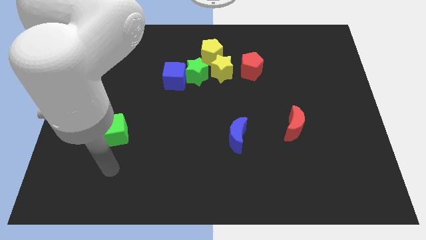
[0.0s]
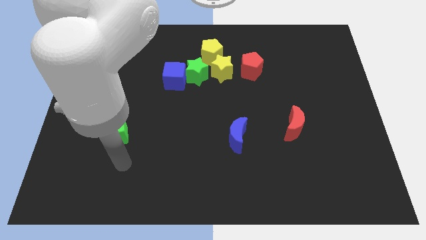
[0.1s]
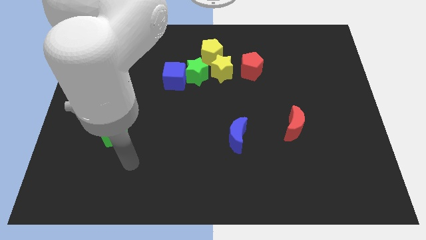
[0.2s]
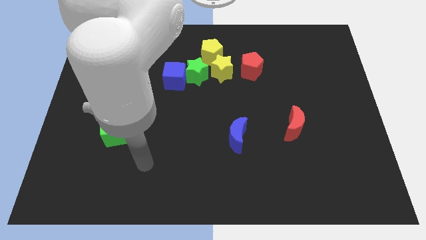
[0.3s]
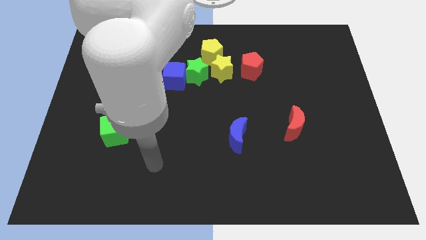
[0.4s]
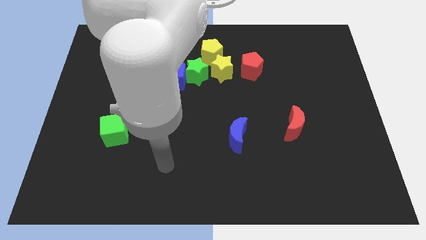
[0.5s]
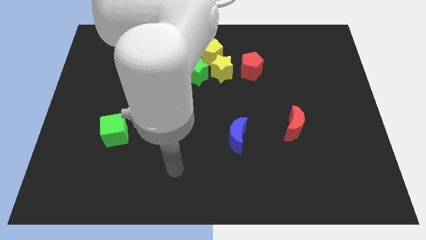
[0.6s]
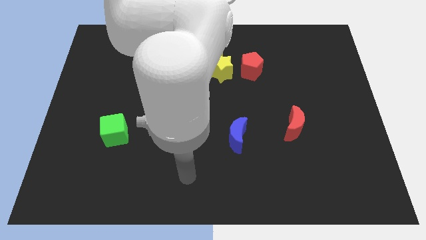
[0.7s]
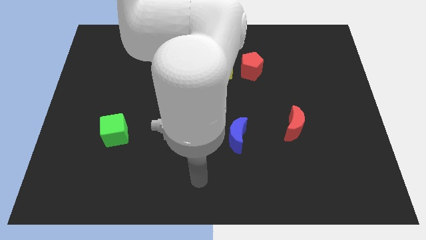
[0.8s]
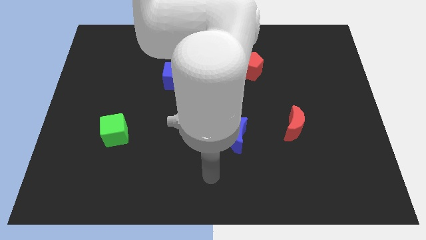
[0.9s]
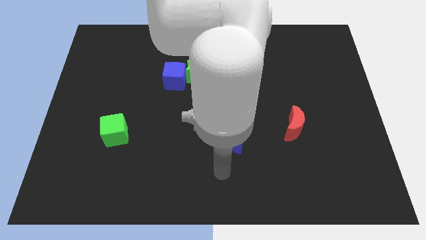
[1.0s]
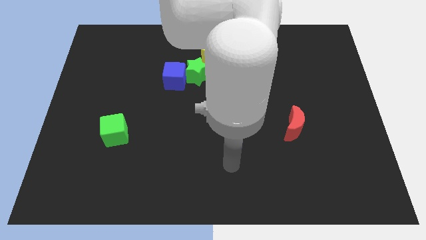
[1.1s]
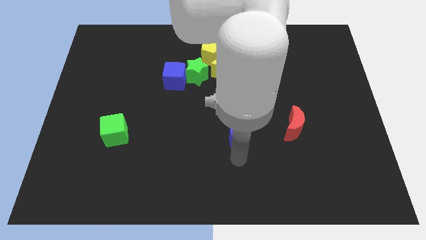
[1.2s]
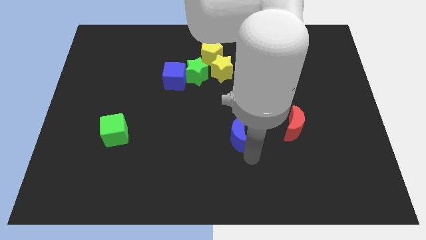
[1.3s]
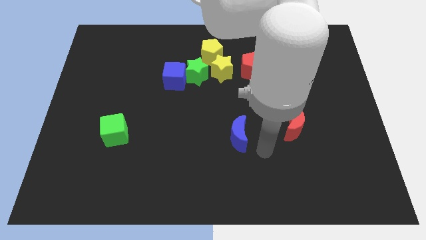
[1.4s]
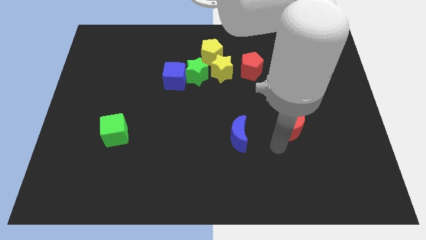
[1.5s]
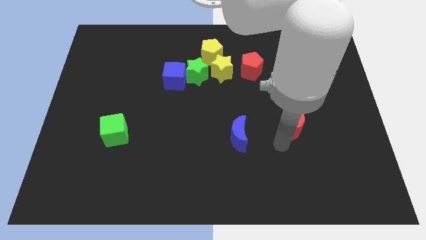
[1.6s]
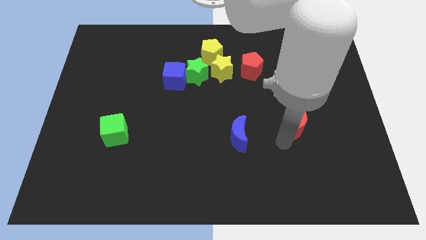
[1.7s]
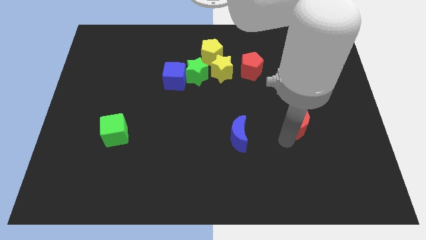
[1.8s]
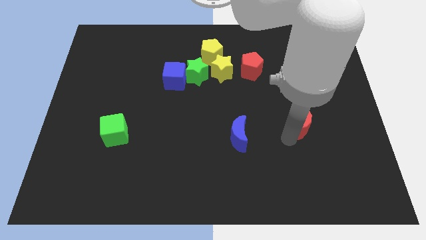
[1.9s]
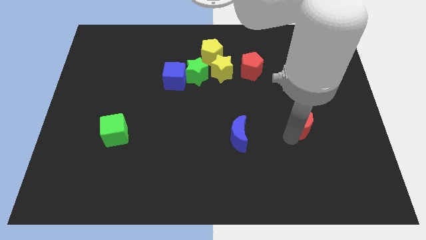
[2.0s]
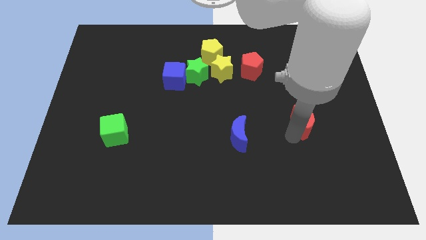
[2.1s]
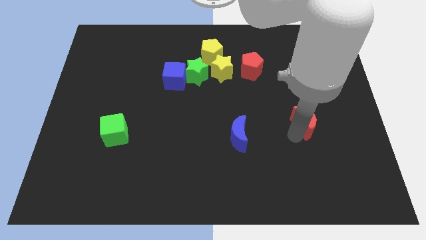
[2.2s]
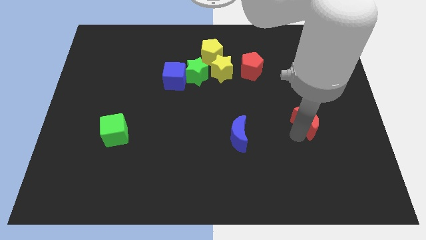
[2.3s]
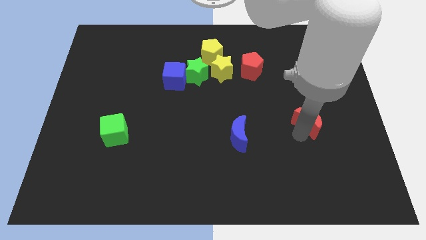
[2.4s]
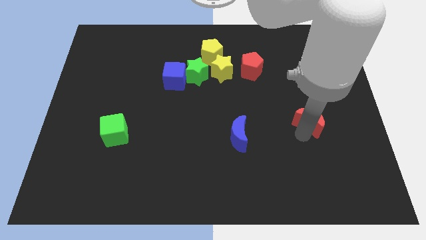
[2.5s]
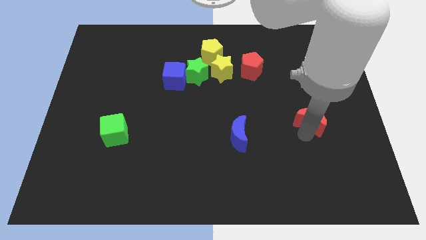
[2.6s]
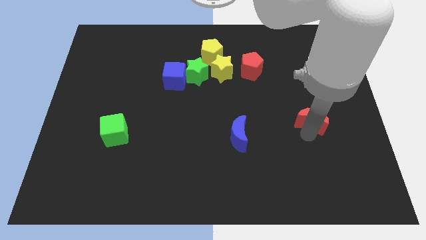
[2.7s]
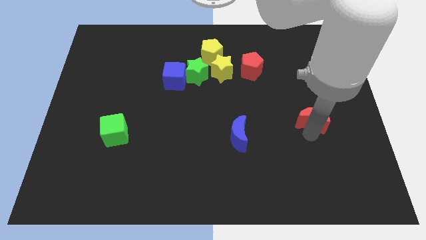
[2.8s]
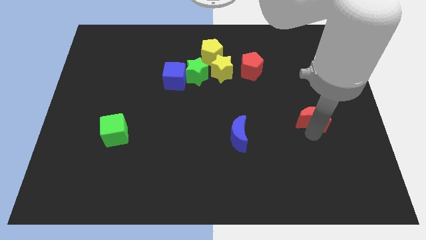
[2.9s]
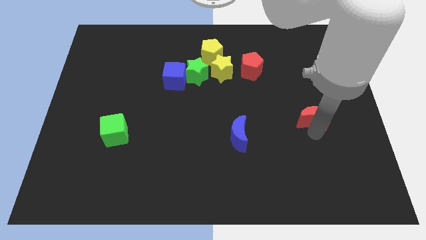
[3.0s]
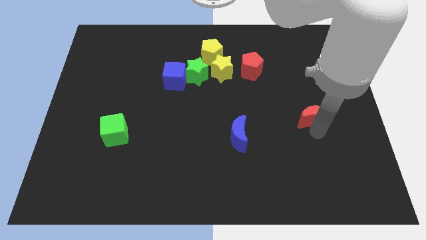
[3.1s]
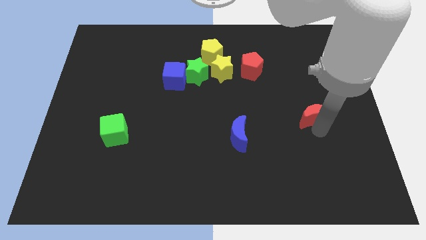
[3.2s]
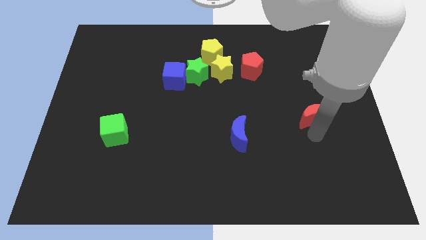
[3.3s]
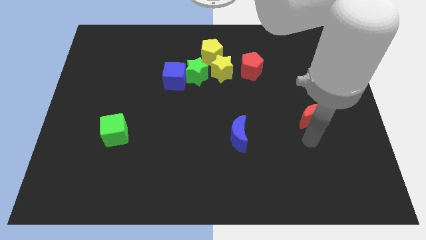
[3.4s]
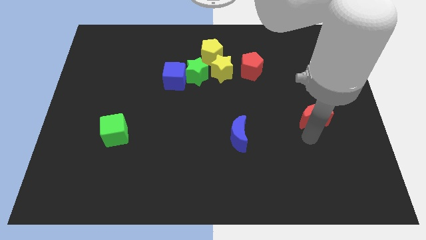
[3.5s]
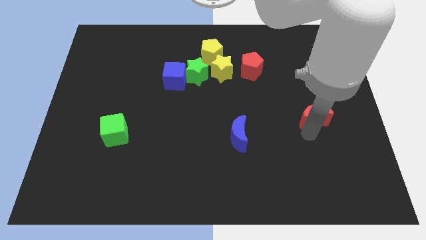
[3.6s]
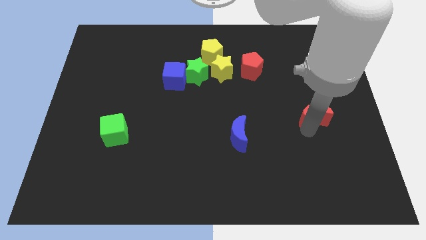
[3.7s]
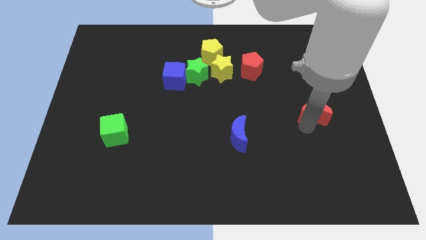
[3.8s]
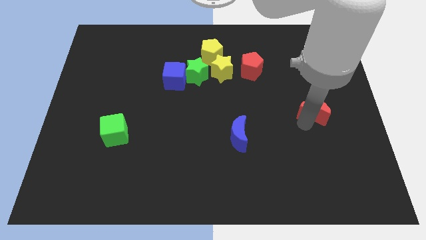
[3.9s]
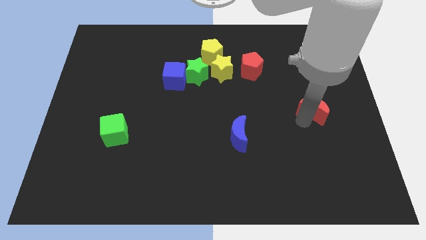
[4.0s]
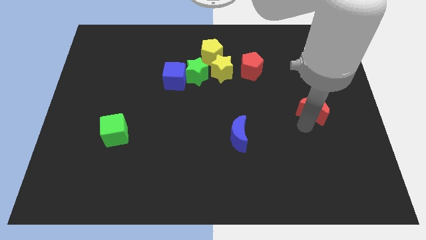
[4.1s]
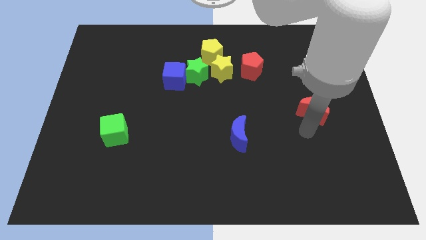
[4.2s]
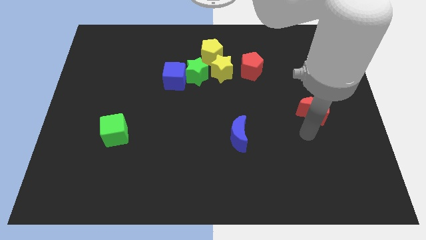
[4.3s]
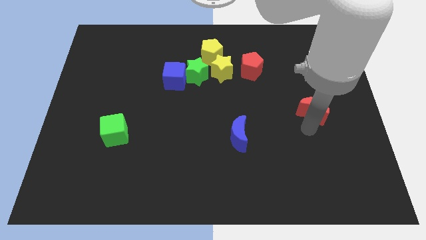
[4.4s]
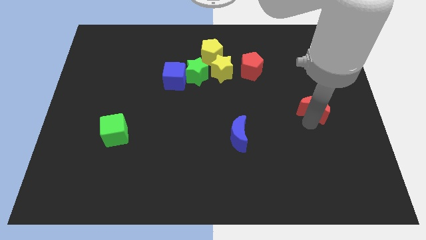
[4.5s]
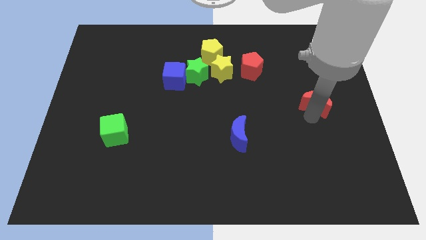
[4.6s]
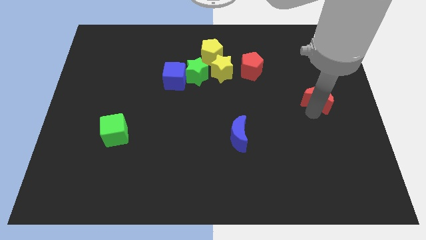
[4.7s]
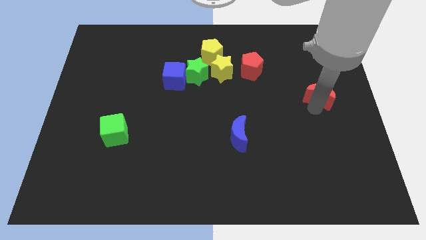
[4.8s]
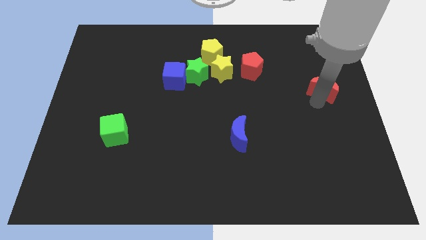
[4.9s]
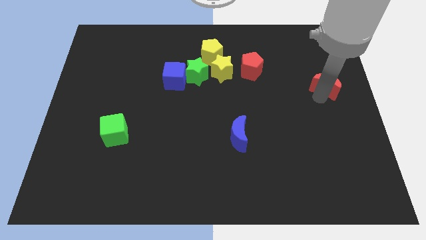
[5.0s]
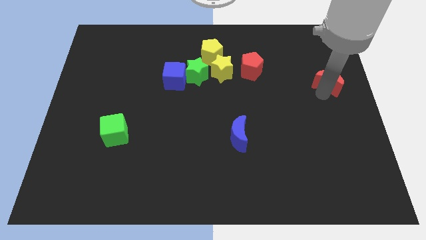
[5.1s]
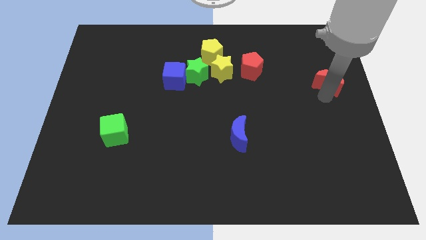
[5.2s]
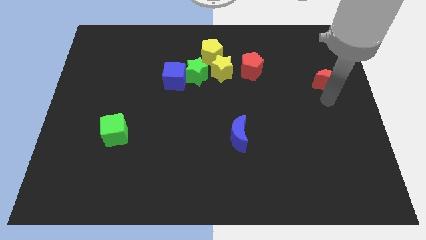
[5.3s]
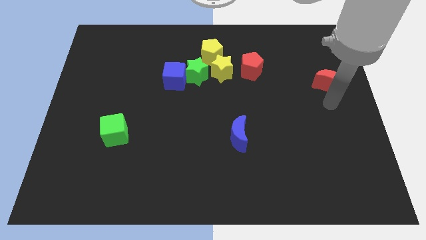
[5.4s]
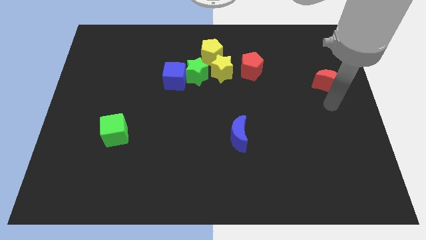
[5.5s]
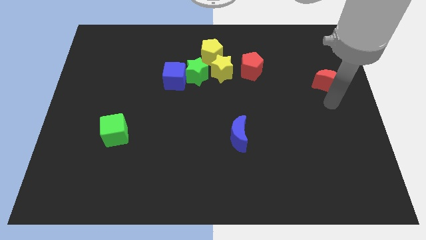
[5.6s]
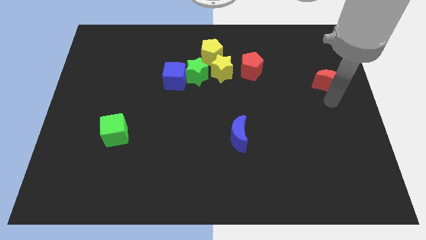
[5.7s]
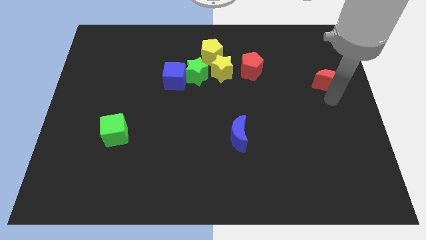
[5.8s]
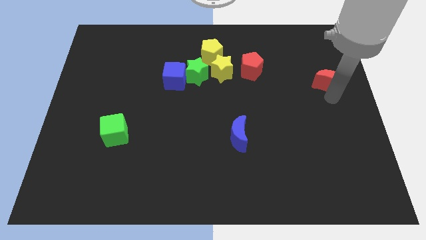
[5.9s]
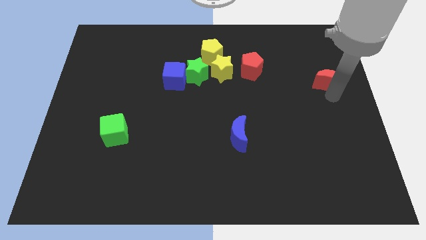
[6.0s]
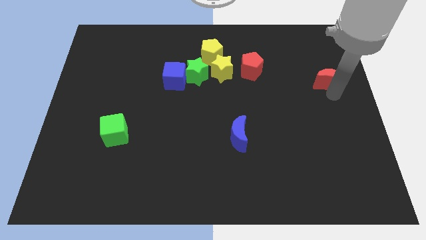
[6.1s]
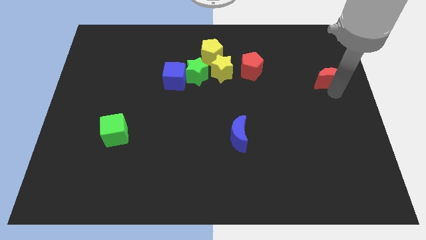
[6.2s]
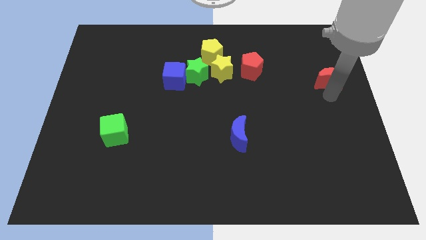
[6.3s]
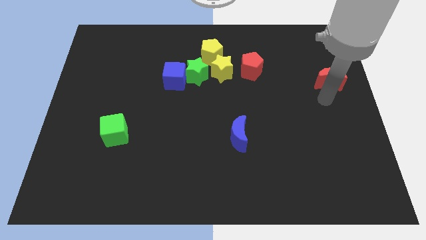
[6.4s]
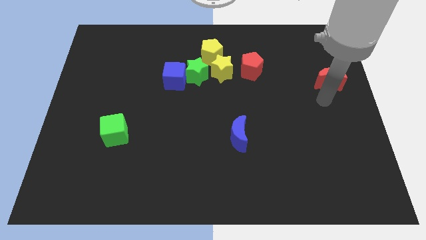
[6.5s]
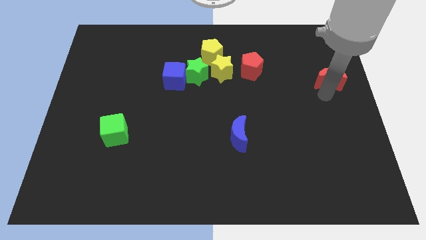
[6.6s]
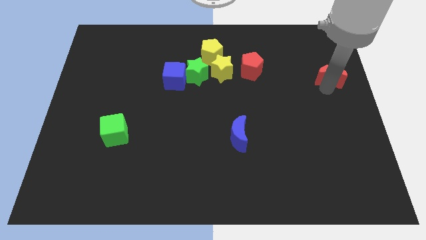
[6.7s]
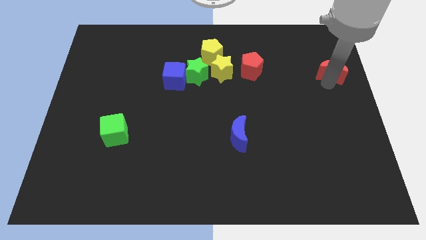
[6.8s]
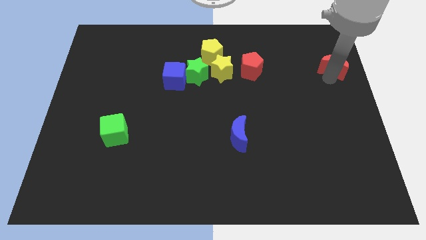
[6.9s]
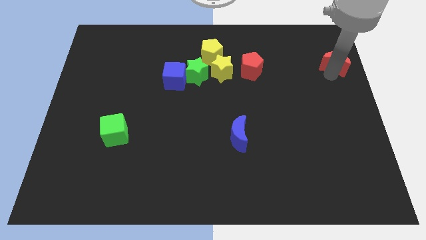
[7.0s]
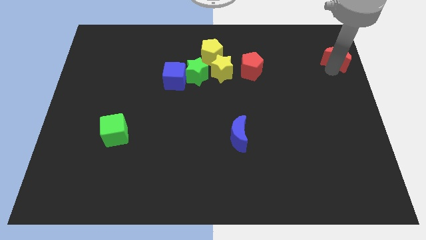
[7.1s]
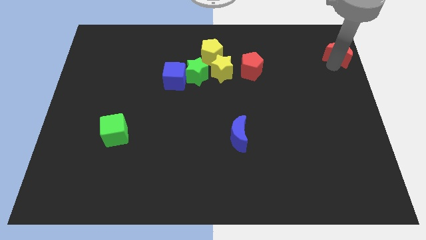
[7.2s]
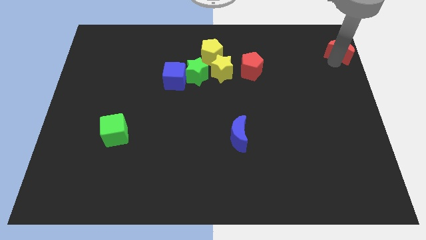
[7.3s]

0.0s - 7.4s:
put the red moon to the top right of the board
